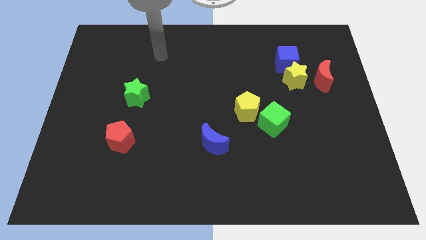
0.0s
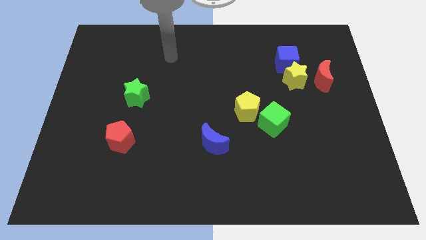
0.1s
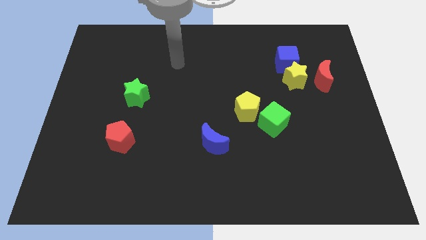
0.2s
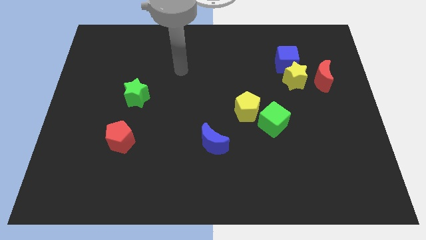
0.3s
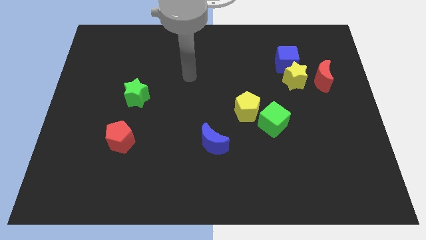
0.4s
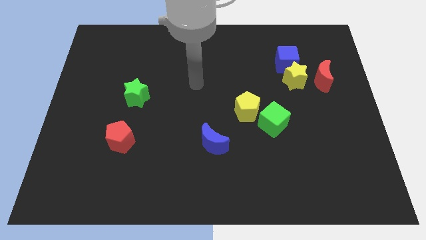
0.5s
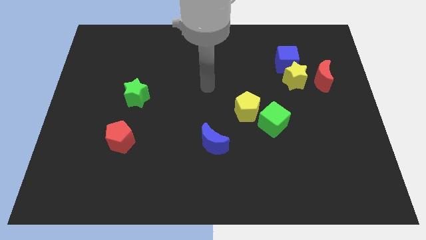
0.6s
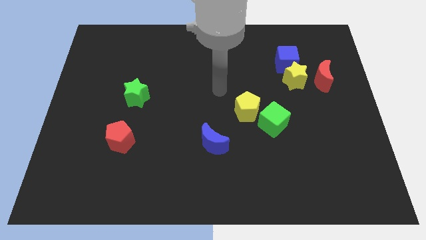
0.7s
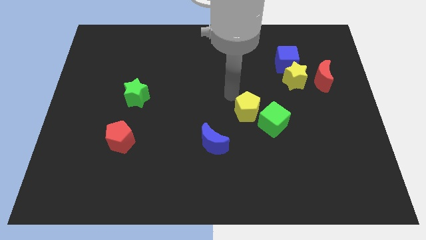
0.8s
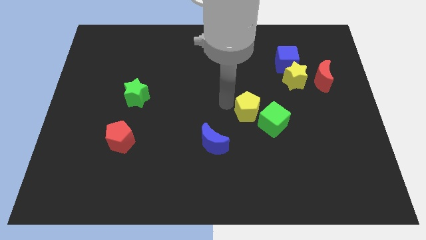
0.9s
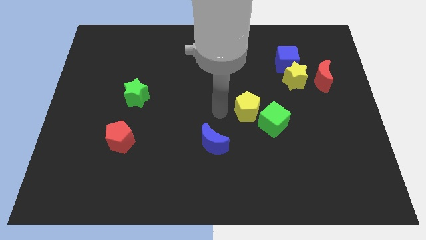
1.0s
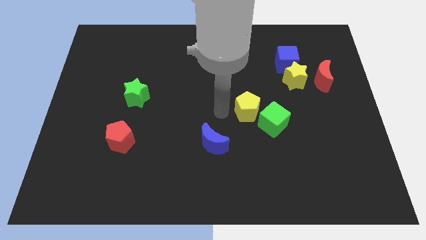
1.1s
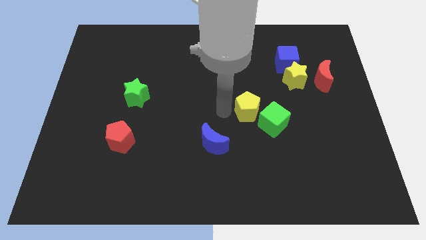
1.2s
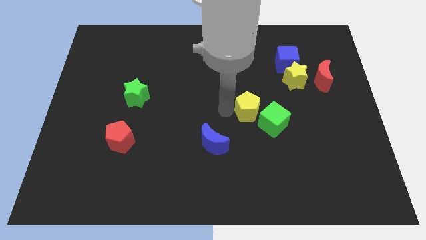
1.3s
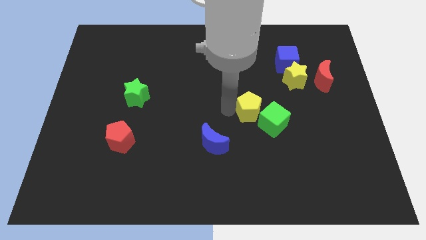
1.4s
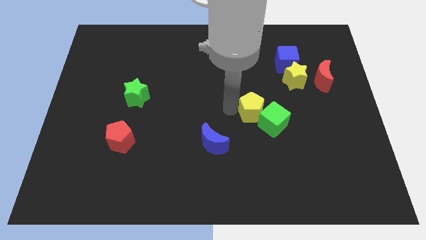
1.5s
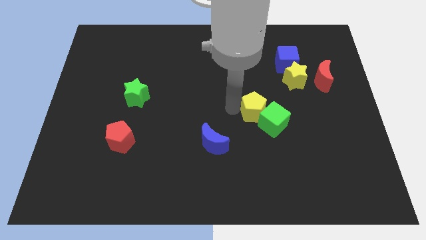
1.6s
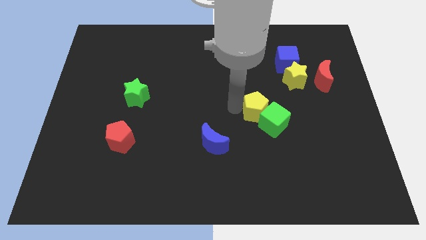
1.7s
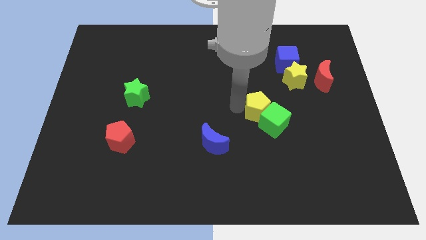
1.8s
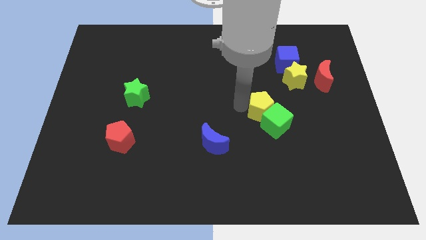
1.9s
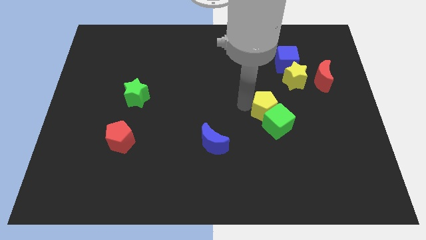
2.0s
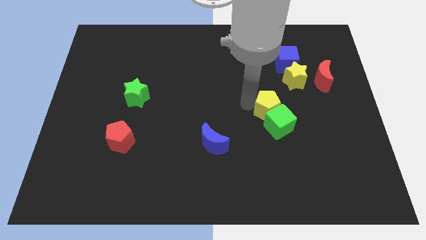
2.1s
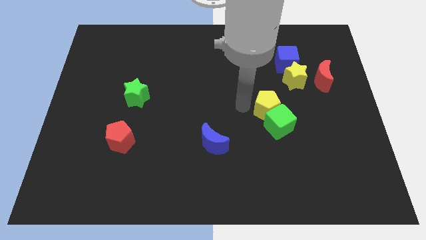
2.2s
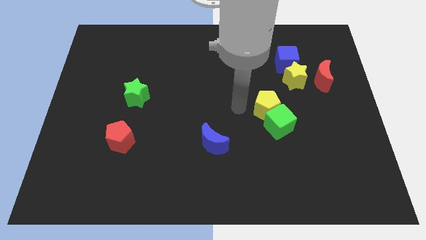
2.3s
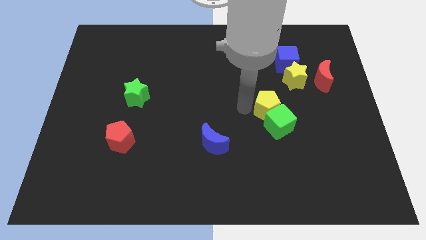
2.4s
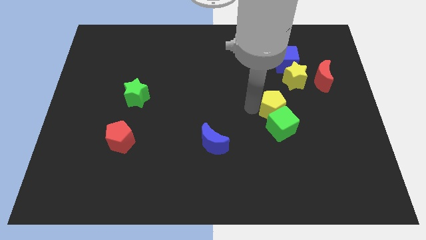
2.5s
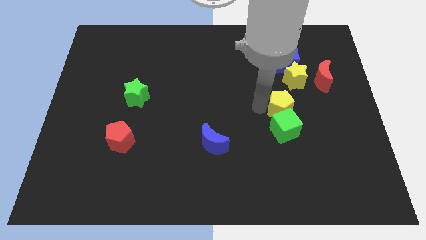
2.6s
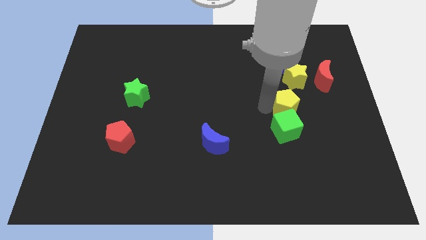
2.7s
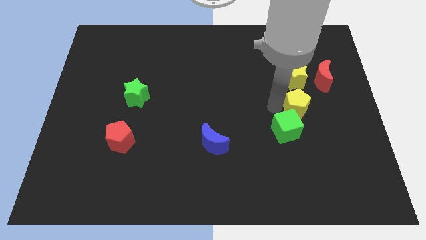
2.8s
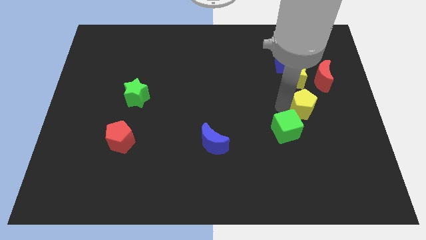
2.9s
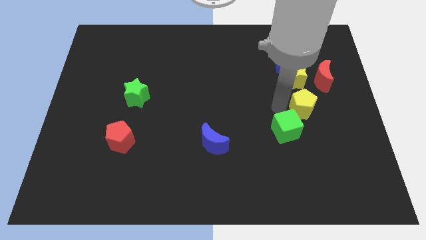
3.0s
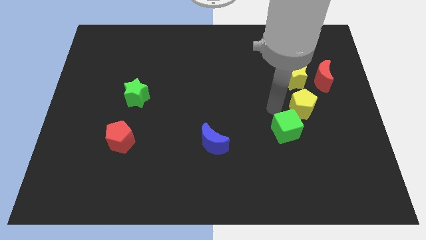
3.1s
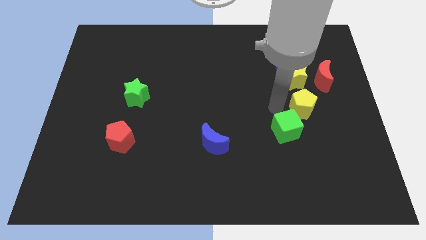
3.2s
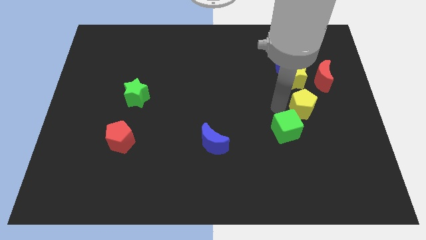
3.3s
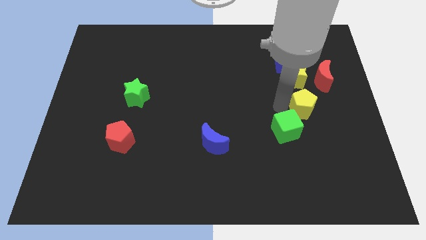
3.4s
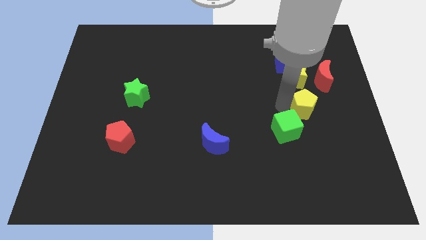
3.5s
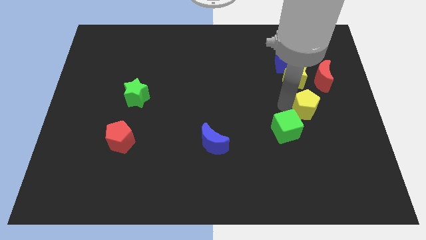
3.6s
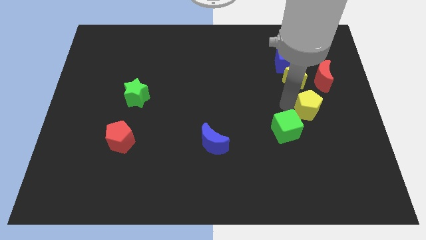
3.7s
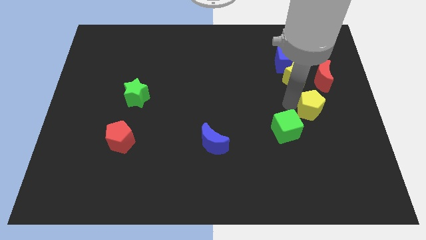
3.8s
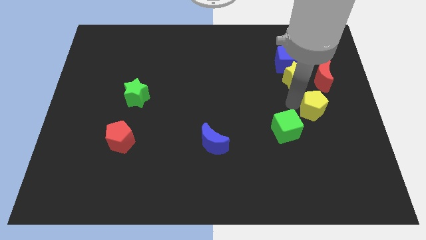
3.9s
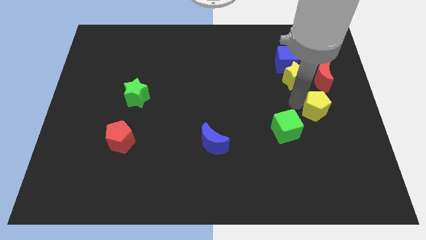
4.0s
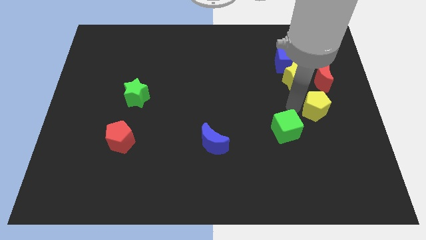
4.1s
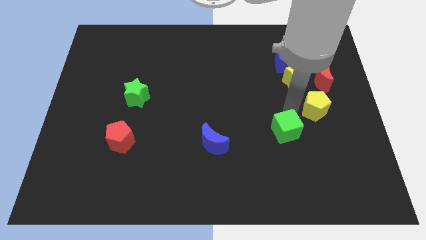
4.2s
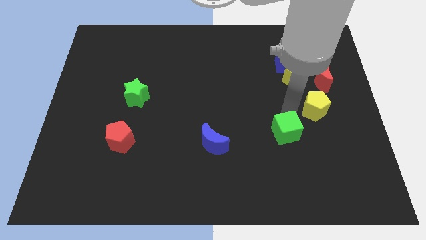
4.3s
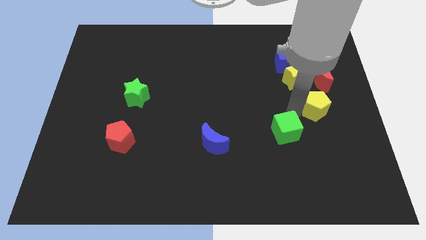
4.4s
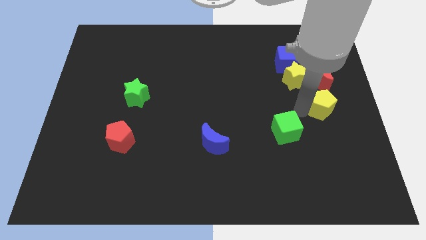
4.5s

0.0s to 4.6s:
put the yellow pentagon to the right side

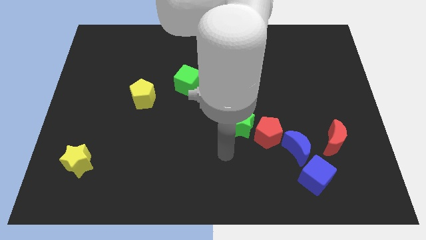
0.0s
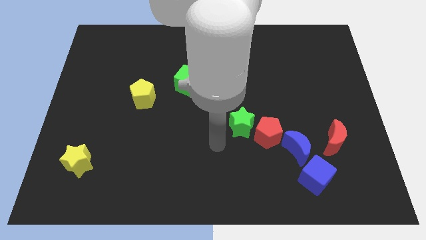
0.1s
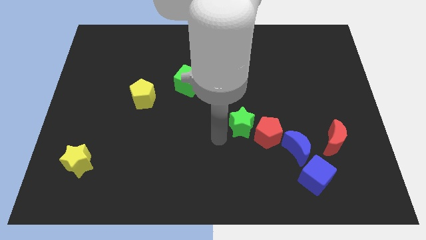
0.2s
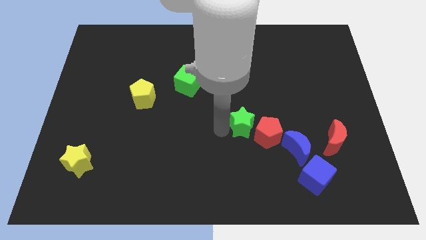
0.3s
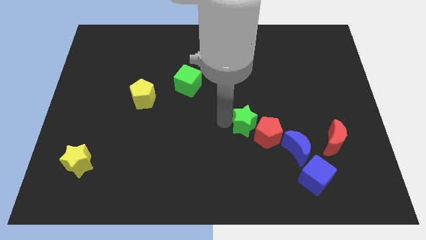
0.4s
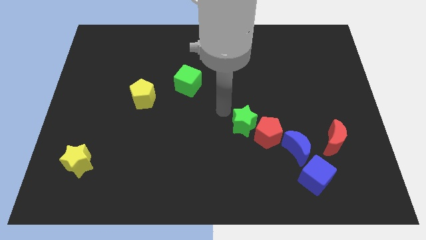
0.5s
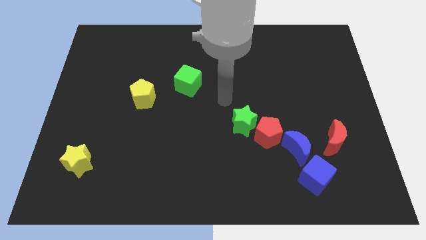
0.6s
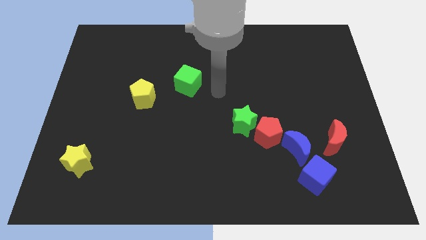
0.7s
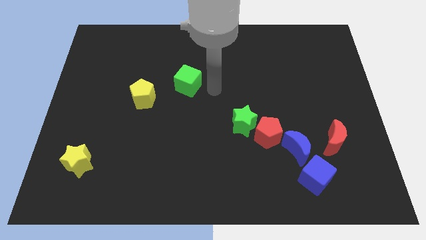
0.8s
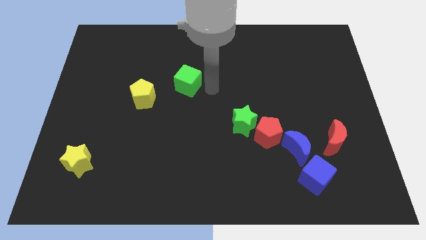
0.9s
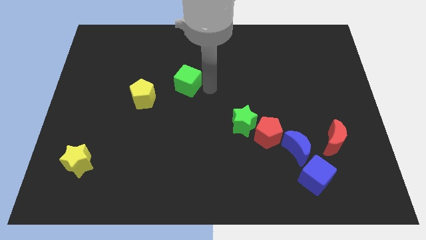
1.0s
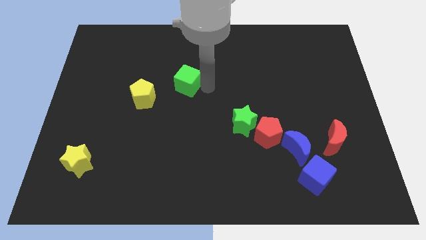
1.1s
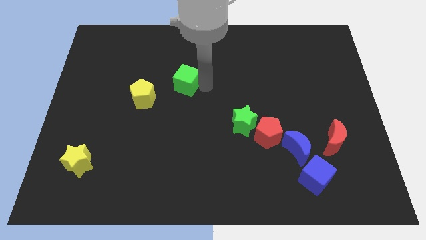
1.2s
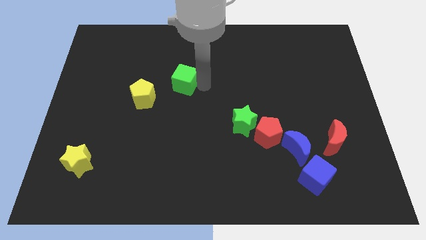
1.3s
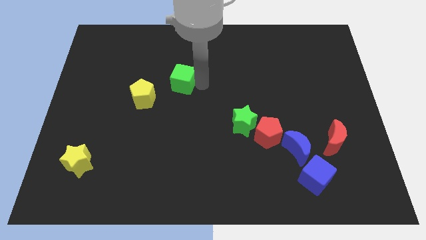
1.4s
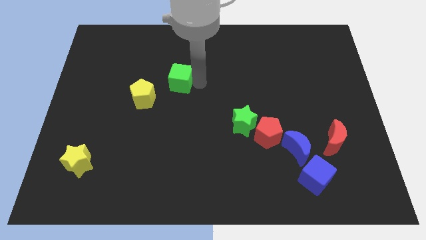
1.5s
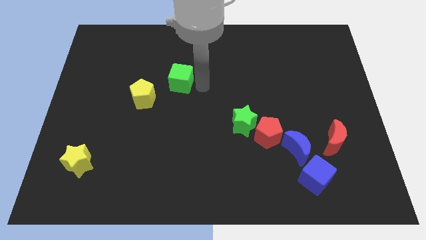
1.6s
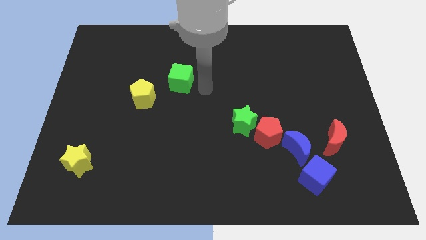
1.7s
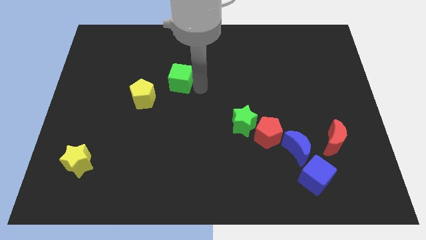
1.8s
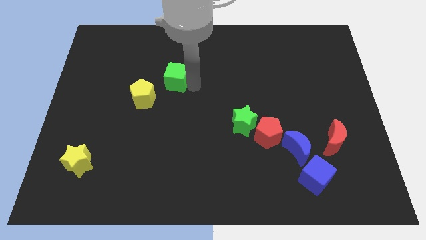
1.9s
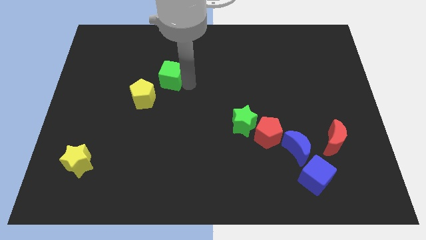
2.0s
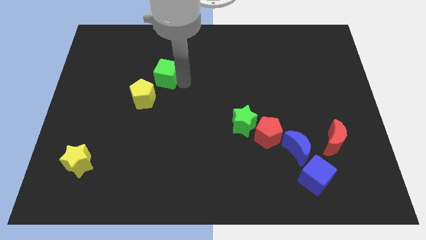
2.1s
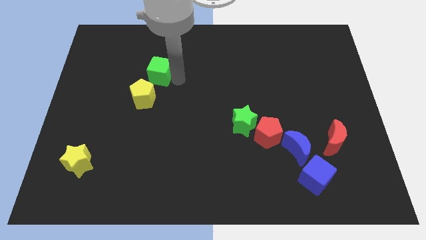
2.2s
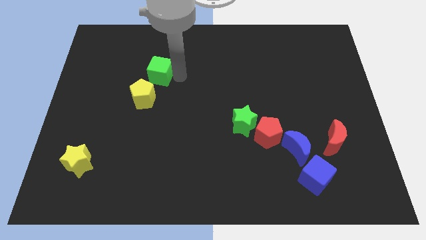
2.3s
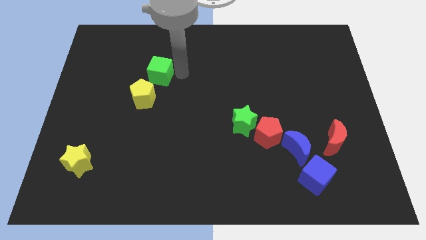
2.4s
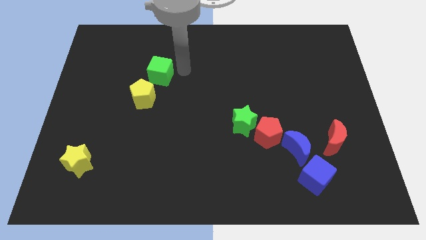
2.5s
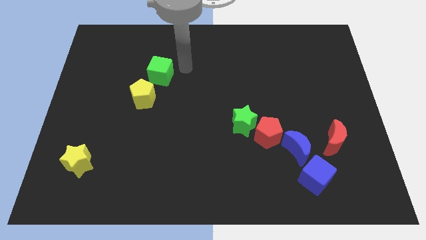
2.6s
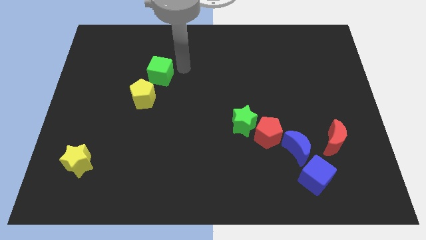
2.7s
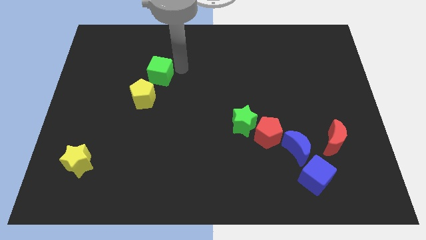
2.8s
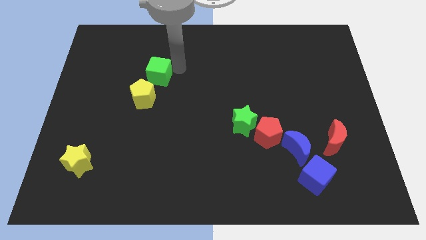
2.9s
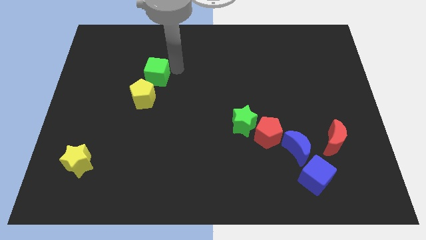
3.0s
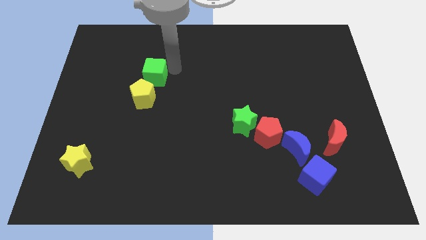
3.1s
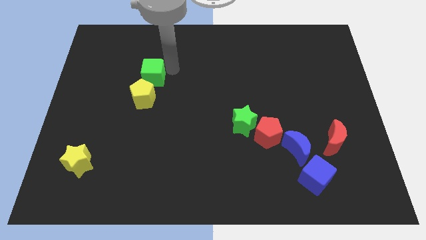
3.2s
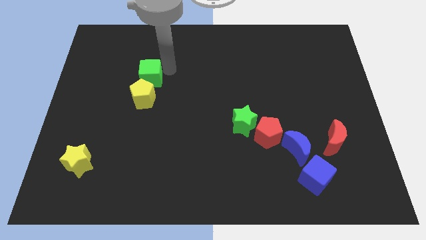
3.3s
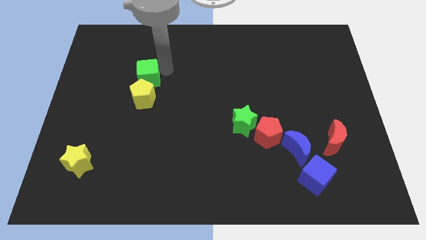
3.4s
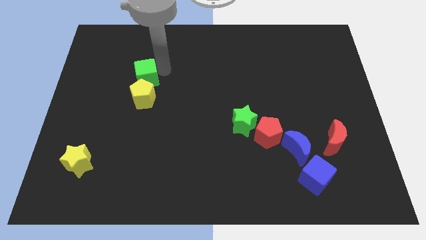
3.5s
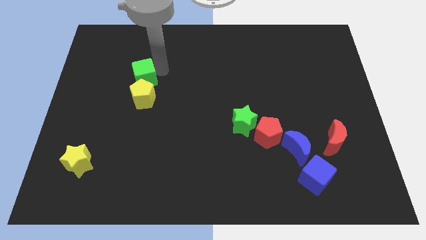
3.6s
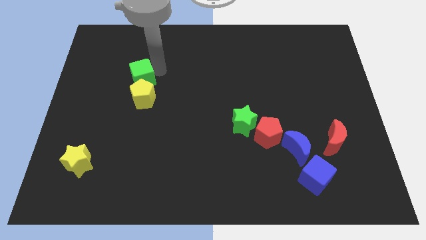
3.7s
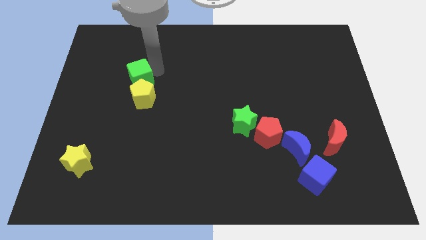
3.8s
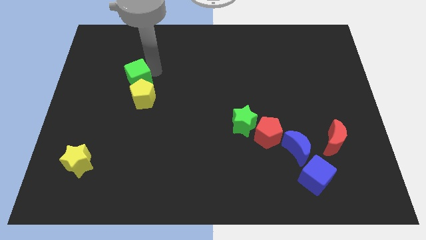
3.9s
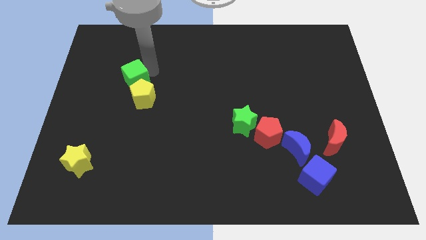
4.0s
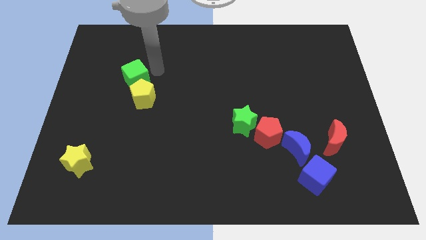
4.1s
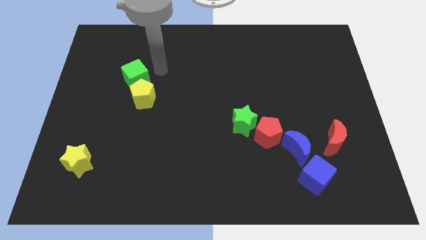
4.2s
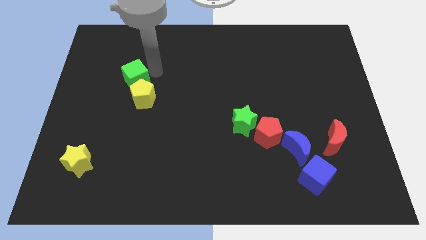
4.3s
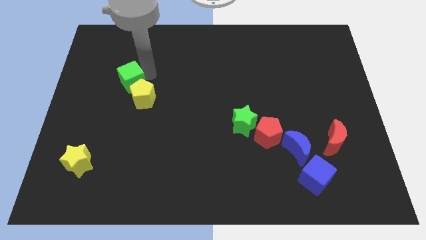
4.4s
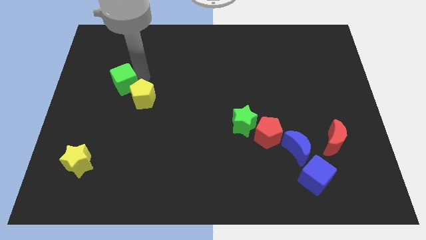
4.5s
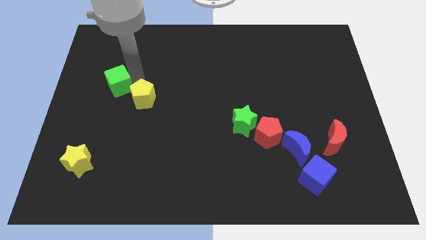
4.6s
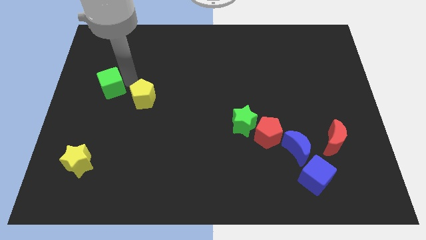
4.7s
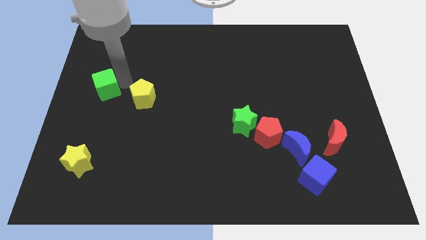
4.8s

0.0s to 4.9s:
put the green cube to the center left
